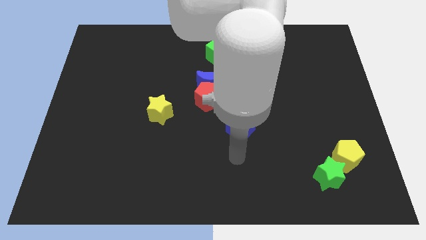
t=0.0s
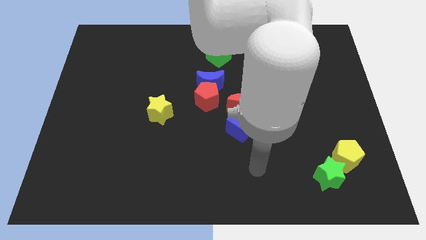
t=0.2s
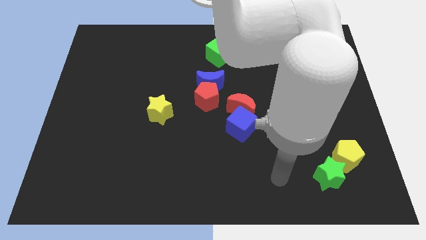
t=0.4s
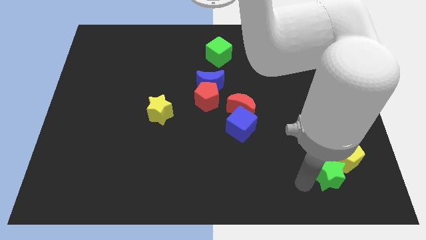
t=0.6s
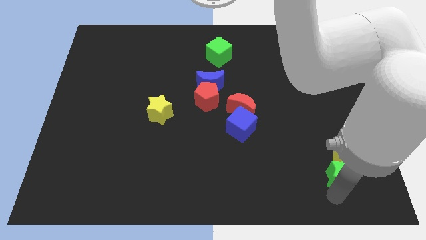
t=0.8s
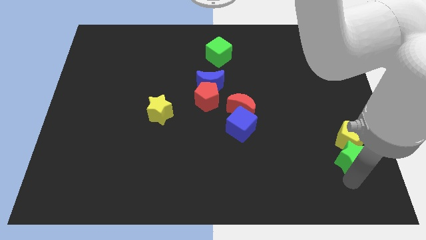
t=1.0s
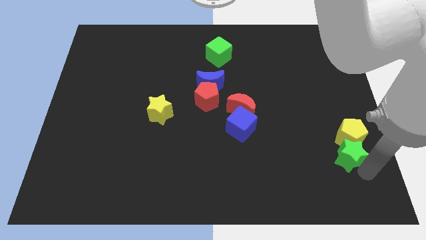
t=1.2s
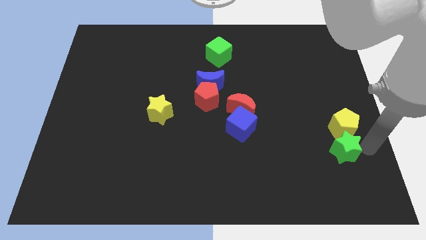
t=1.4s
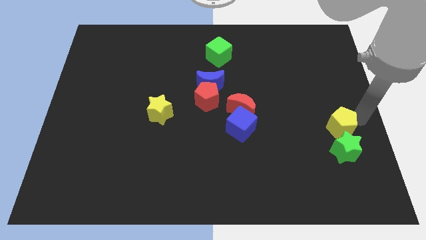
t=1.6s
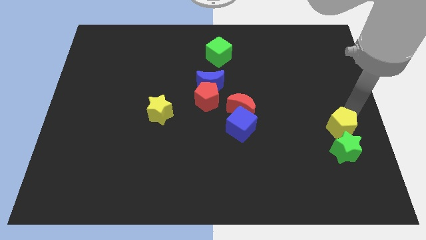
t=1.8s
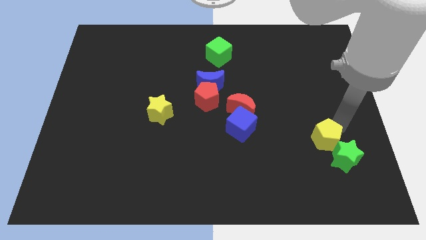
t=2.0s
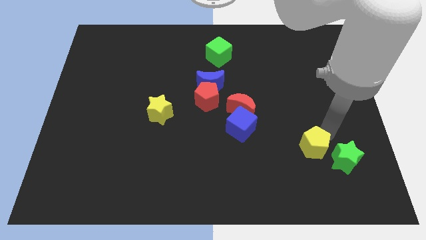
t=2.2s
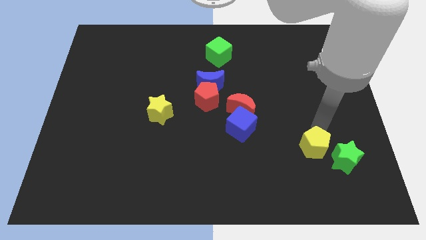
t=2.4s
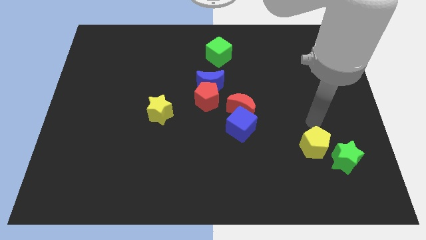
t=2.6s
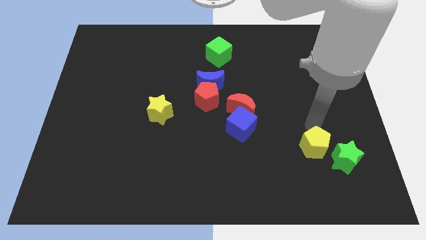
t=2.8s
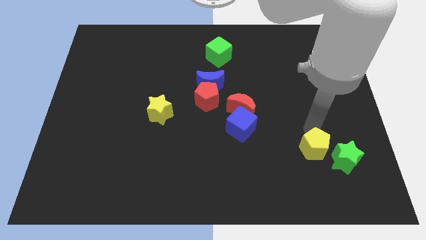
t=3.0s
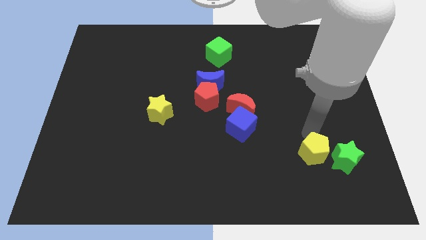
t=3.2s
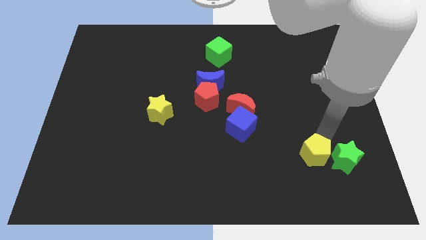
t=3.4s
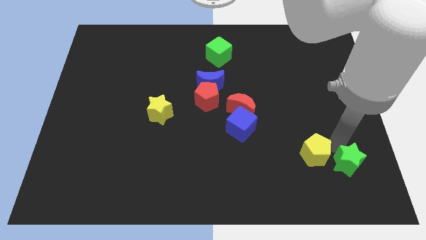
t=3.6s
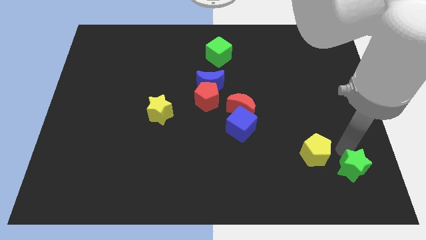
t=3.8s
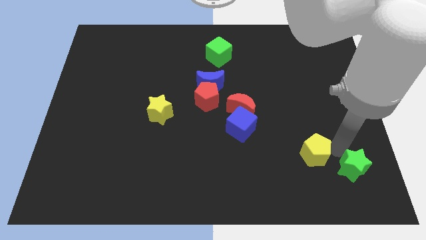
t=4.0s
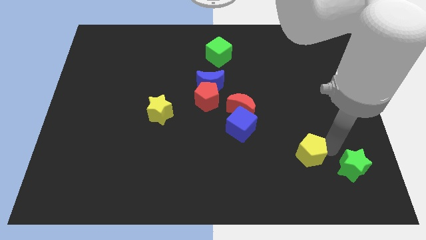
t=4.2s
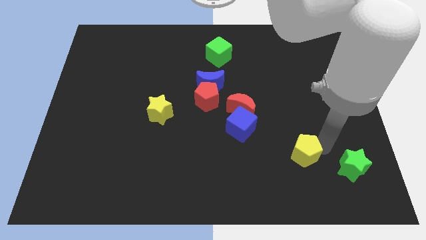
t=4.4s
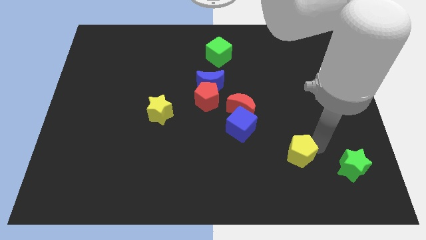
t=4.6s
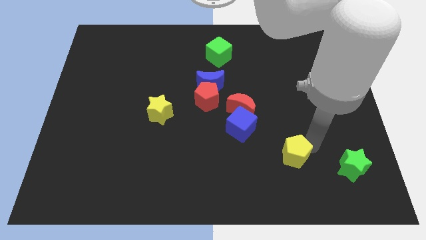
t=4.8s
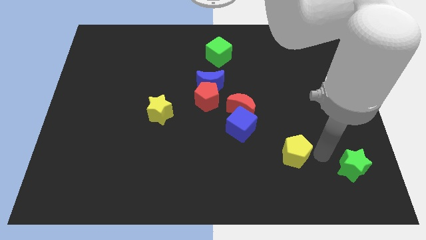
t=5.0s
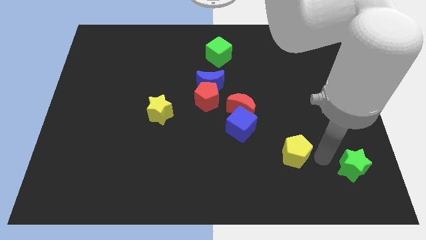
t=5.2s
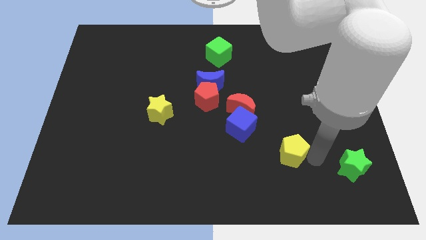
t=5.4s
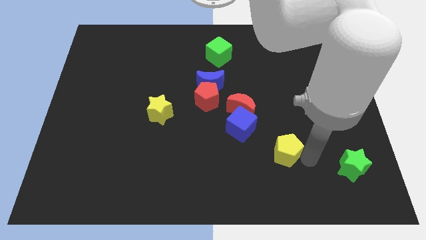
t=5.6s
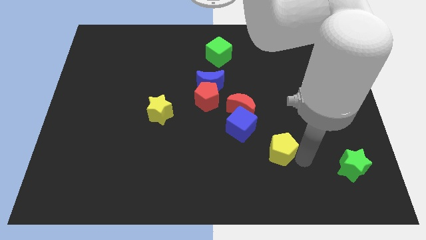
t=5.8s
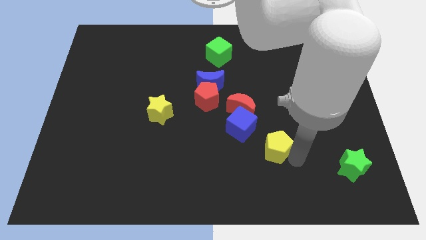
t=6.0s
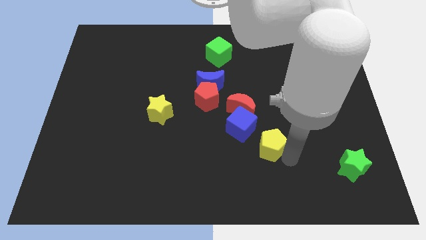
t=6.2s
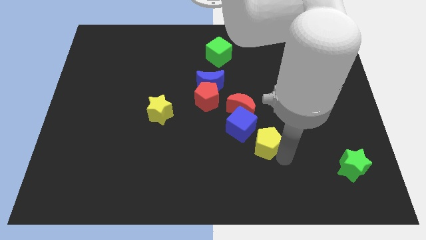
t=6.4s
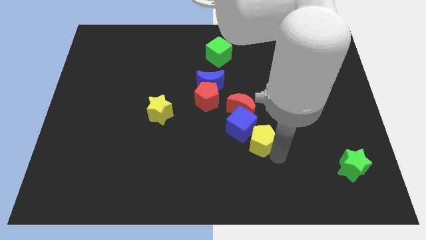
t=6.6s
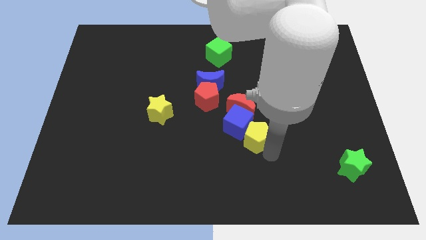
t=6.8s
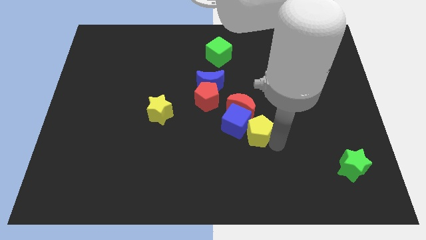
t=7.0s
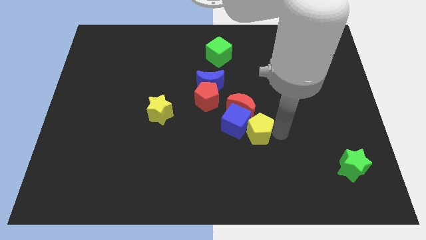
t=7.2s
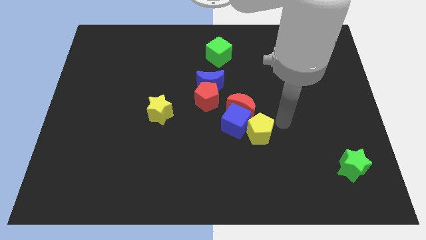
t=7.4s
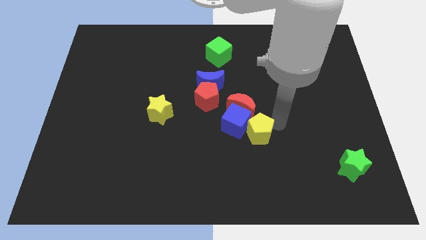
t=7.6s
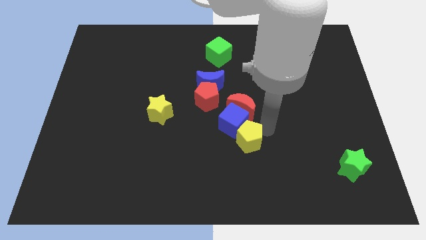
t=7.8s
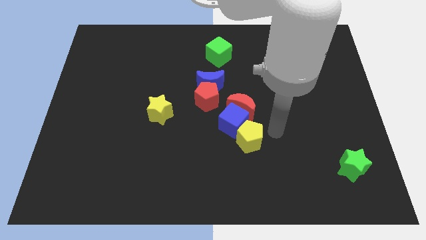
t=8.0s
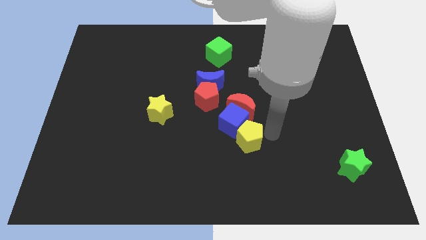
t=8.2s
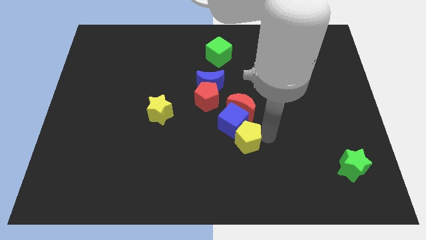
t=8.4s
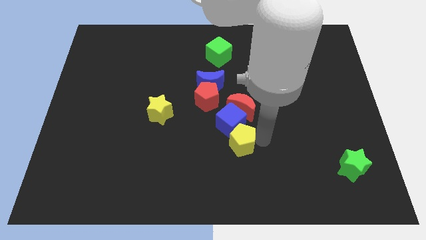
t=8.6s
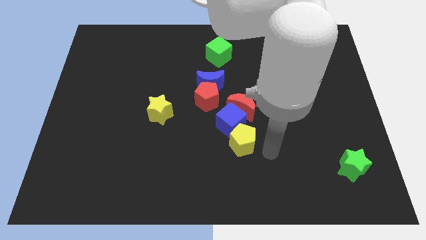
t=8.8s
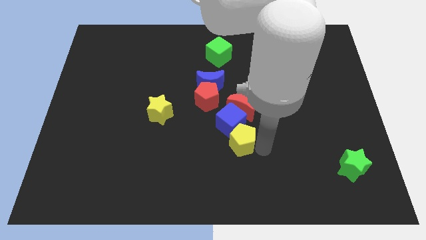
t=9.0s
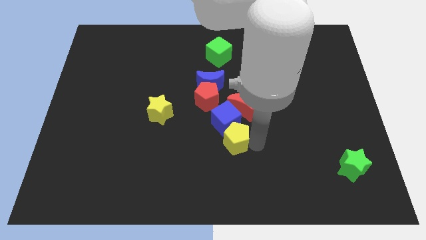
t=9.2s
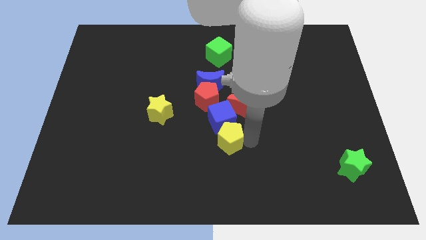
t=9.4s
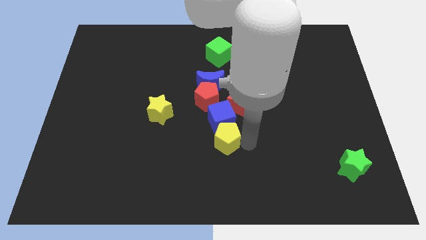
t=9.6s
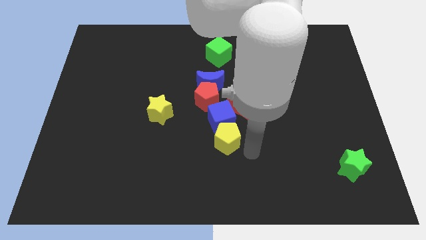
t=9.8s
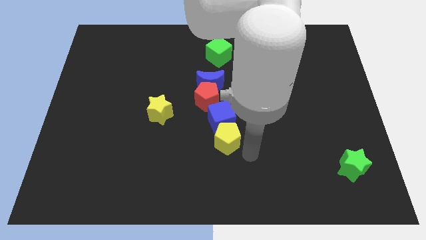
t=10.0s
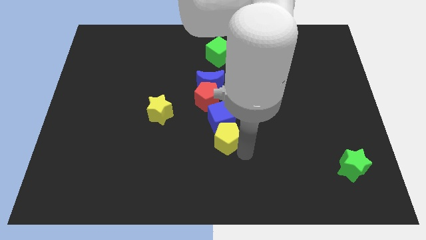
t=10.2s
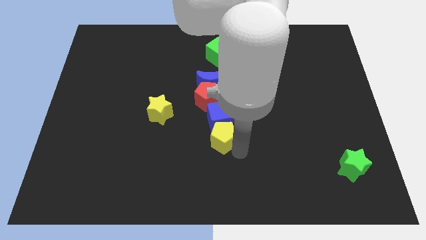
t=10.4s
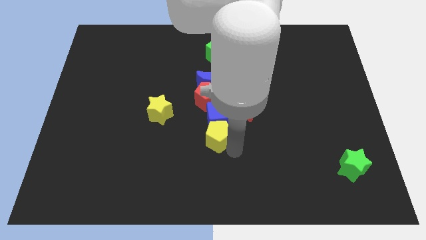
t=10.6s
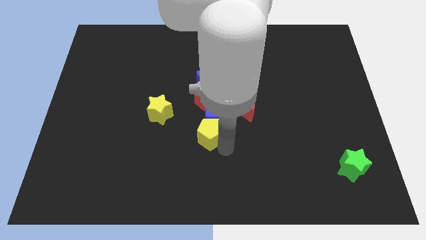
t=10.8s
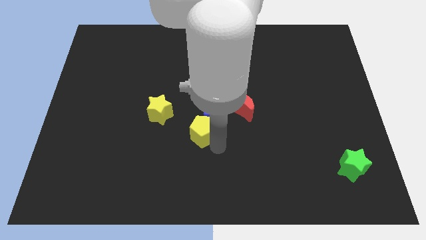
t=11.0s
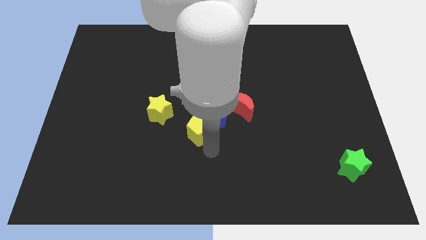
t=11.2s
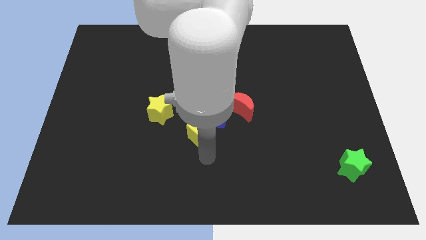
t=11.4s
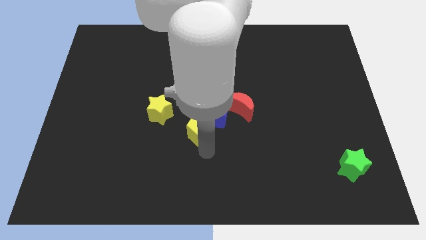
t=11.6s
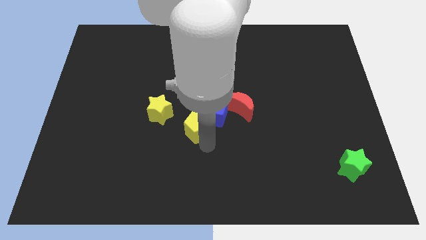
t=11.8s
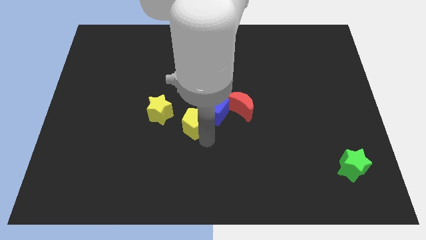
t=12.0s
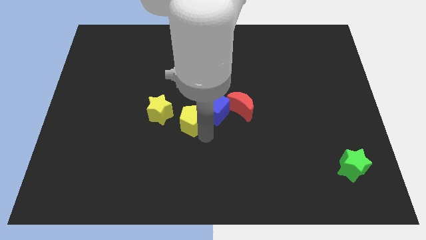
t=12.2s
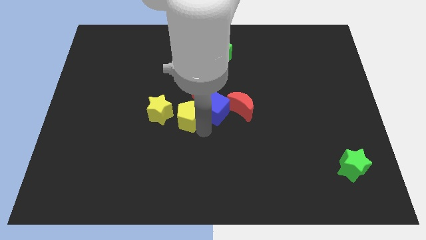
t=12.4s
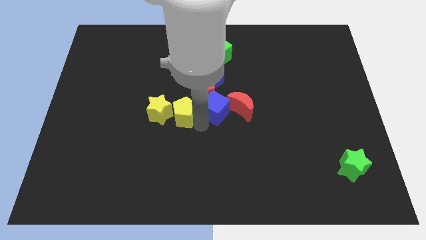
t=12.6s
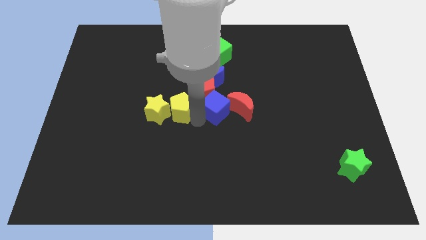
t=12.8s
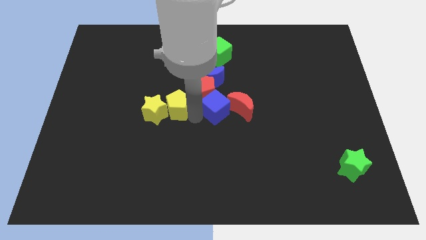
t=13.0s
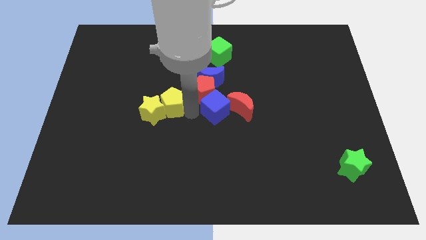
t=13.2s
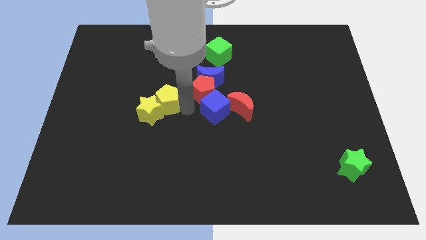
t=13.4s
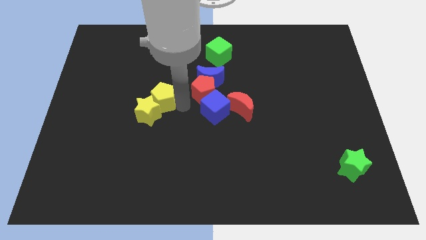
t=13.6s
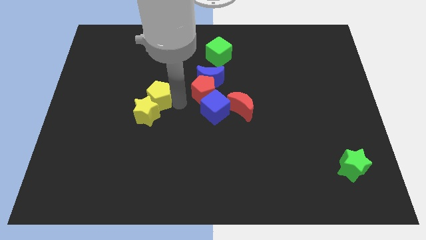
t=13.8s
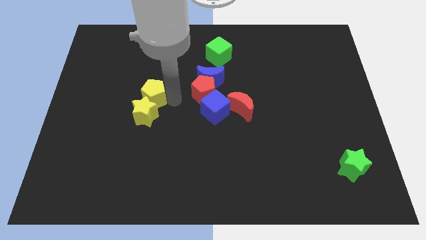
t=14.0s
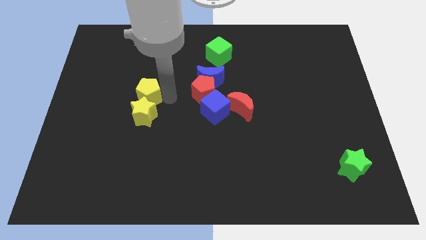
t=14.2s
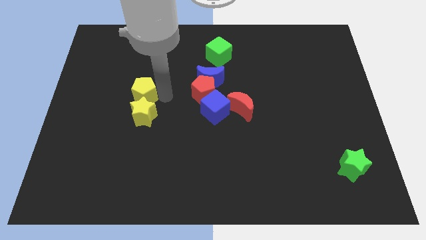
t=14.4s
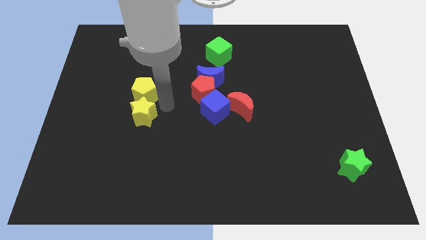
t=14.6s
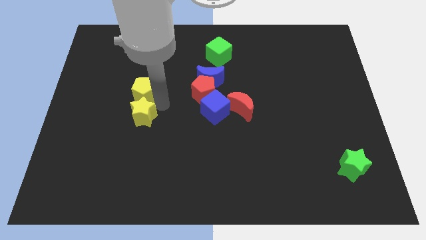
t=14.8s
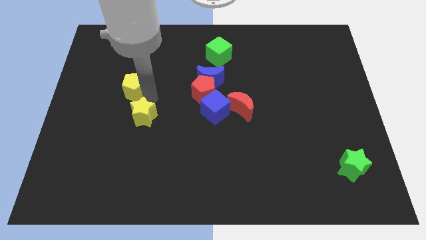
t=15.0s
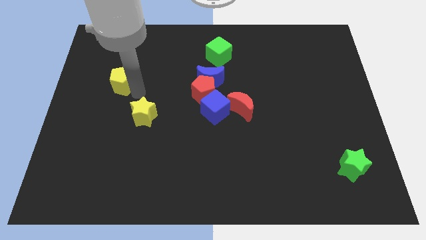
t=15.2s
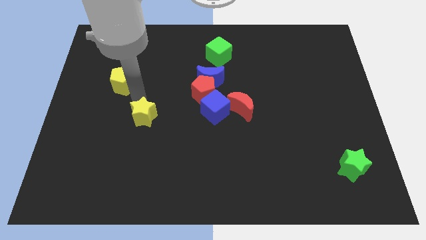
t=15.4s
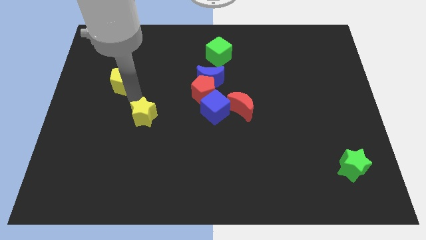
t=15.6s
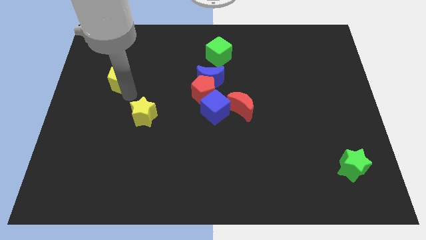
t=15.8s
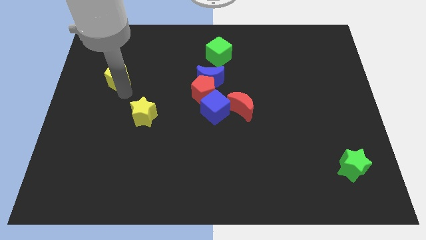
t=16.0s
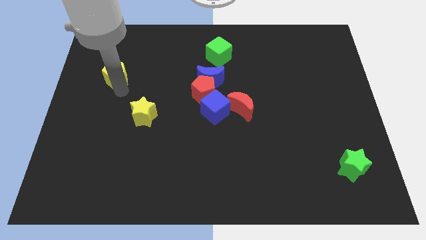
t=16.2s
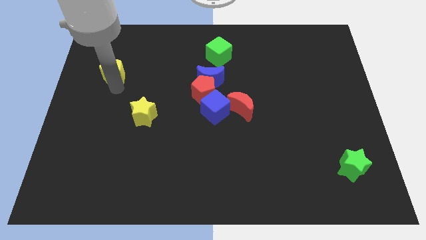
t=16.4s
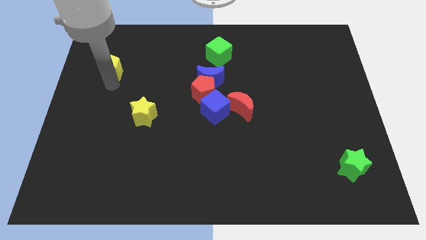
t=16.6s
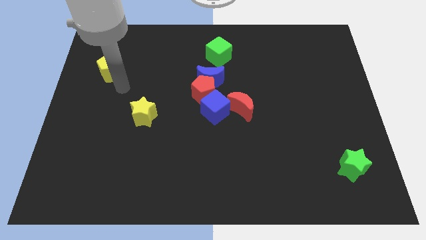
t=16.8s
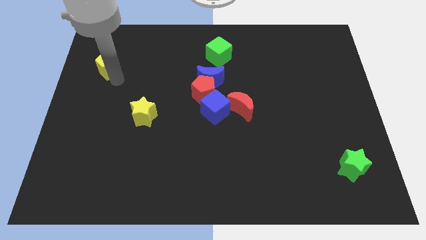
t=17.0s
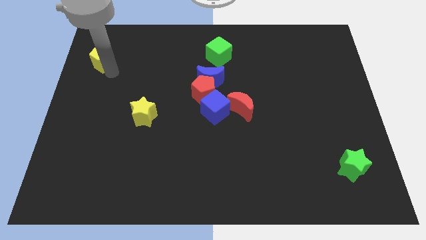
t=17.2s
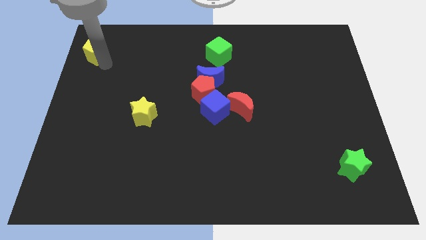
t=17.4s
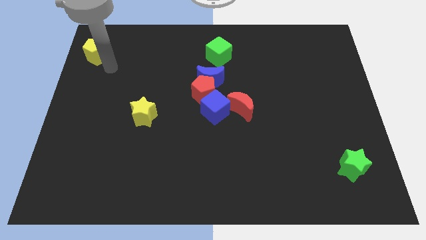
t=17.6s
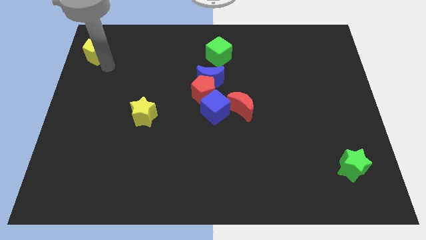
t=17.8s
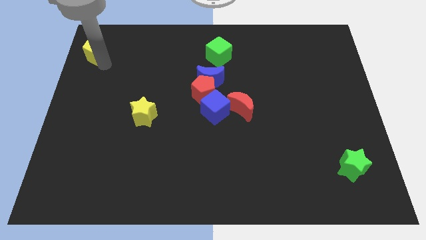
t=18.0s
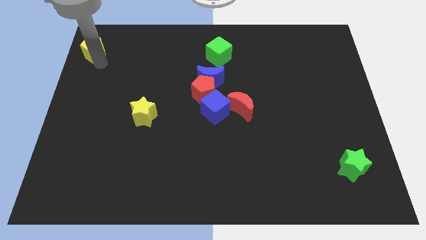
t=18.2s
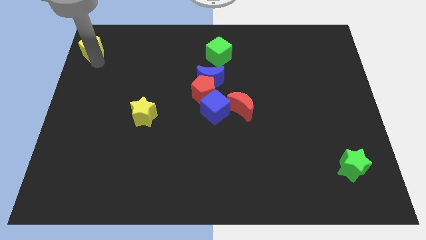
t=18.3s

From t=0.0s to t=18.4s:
push the yellow pentagon to the top left
